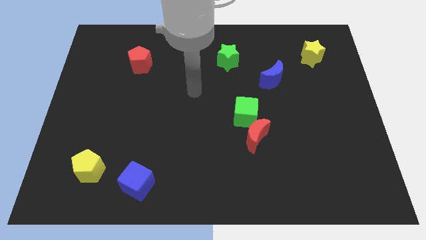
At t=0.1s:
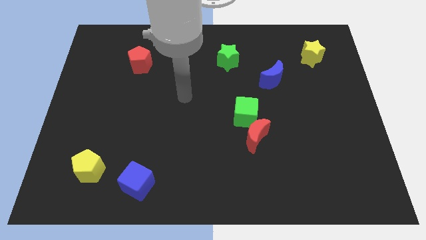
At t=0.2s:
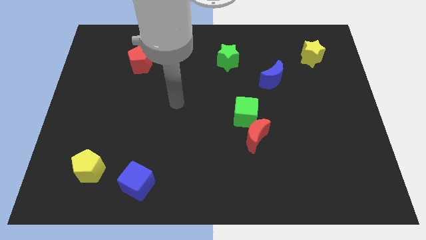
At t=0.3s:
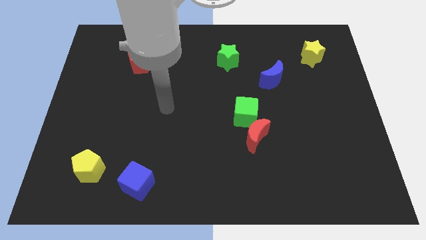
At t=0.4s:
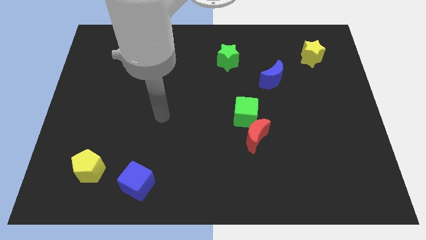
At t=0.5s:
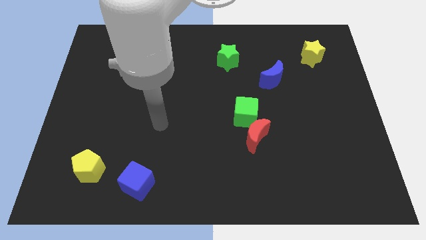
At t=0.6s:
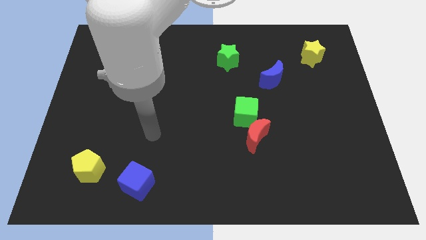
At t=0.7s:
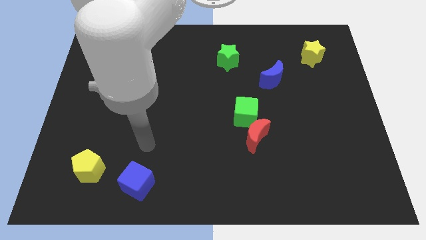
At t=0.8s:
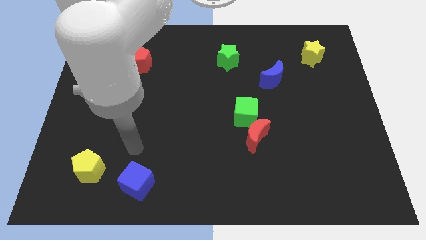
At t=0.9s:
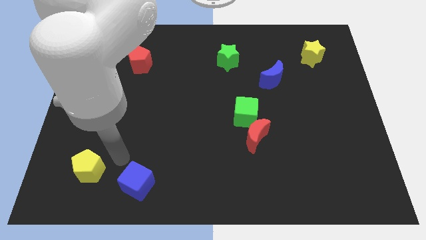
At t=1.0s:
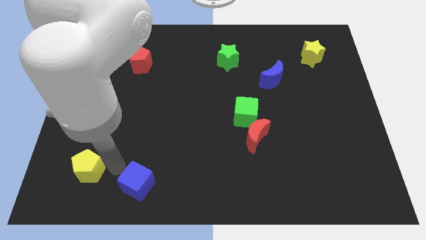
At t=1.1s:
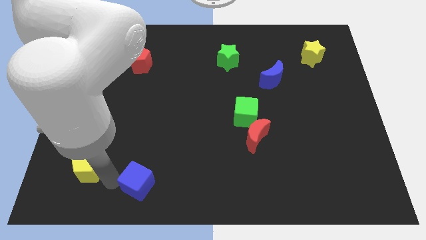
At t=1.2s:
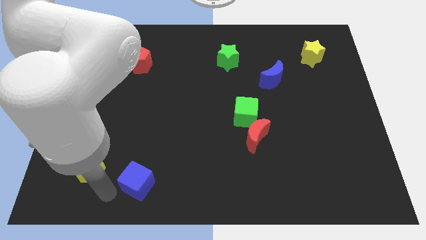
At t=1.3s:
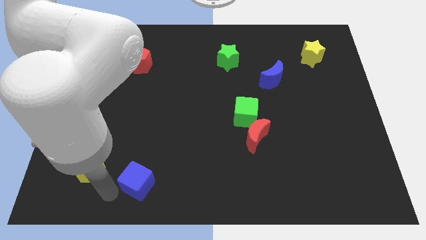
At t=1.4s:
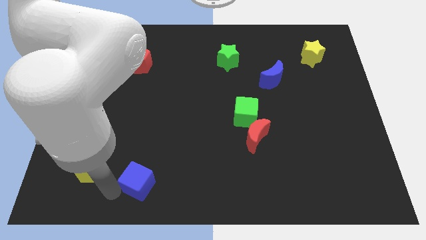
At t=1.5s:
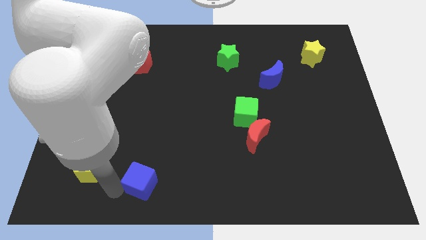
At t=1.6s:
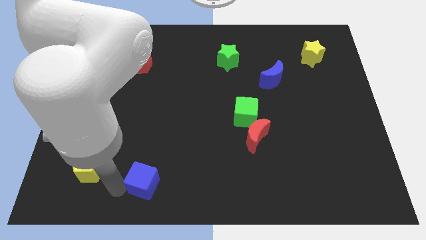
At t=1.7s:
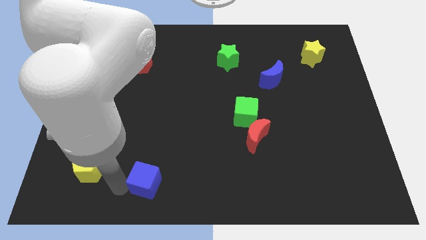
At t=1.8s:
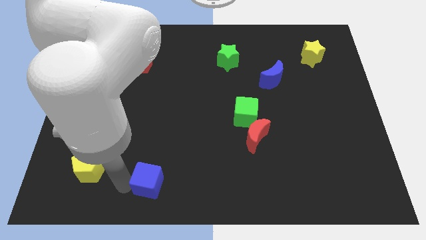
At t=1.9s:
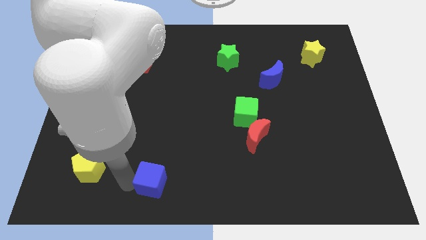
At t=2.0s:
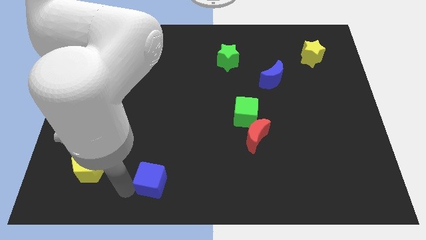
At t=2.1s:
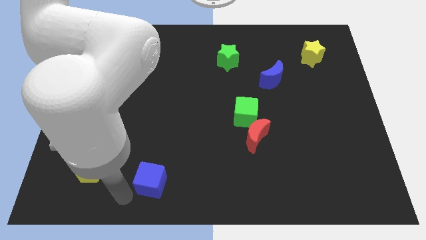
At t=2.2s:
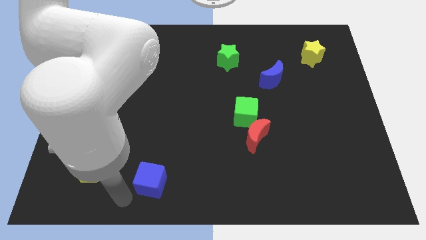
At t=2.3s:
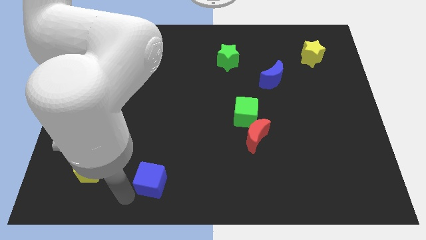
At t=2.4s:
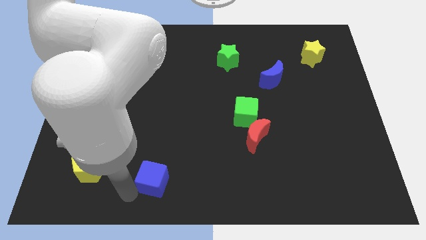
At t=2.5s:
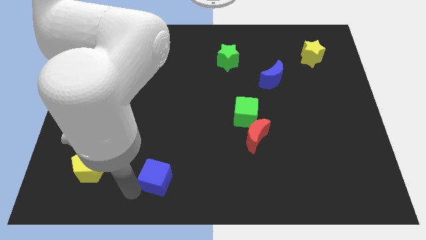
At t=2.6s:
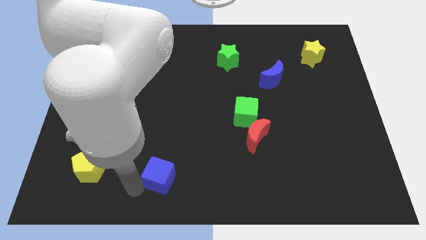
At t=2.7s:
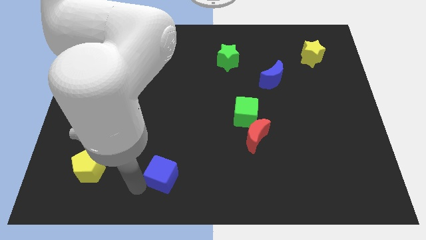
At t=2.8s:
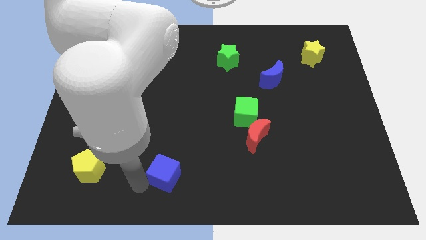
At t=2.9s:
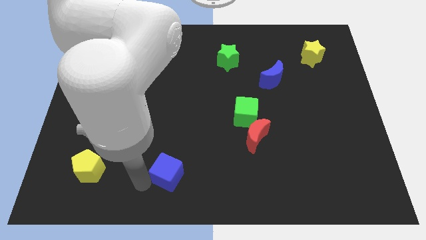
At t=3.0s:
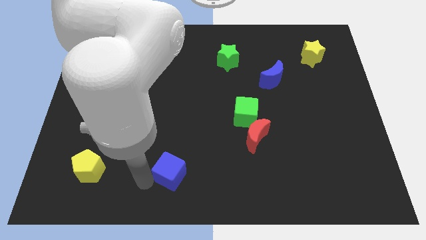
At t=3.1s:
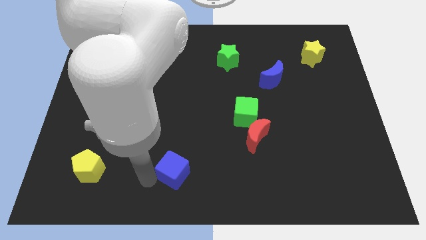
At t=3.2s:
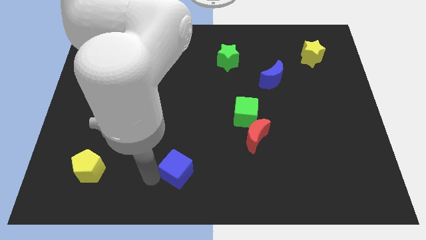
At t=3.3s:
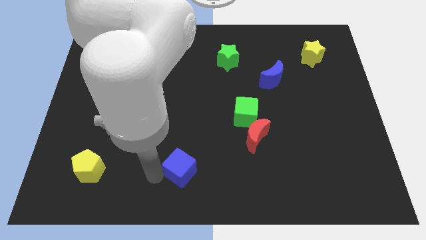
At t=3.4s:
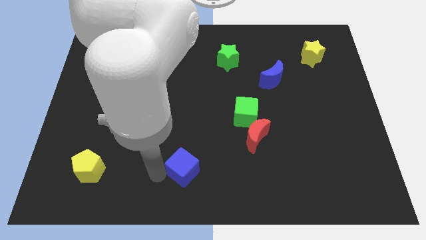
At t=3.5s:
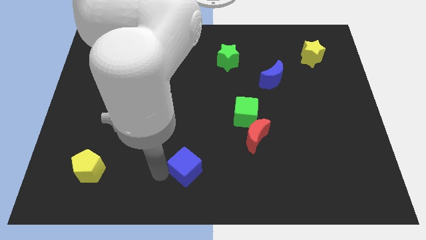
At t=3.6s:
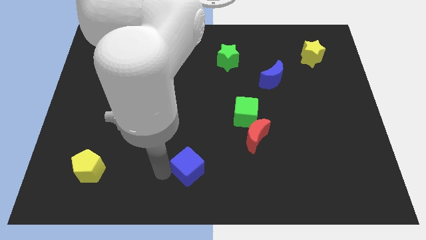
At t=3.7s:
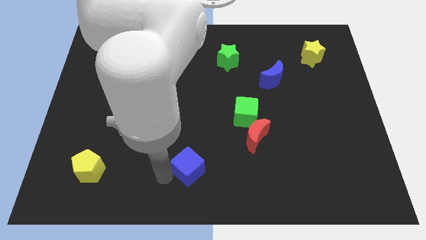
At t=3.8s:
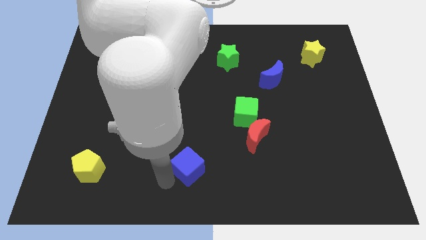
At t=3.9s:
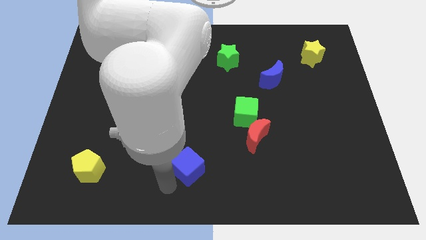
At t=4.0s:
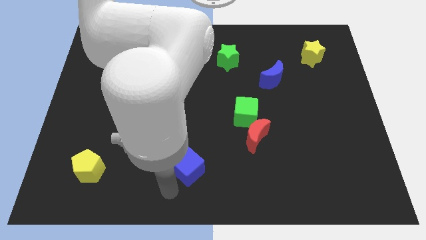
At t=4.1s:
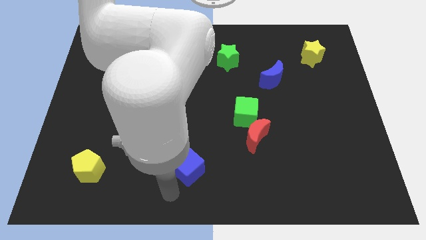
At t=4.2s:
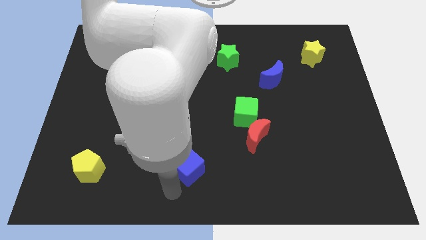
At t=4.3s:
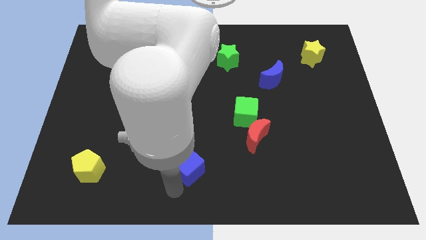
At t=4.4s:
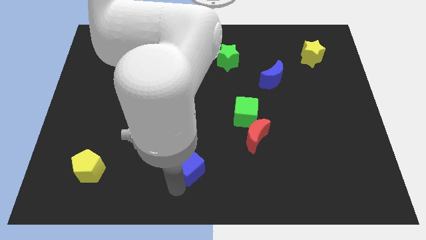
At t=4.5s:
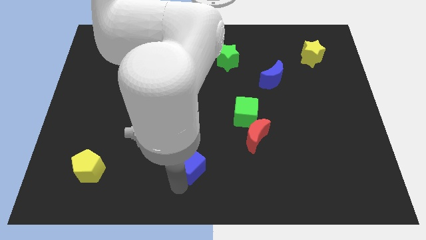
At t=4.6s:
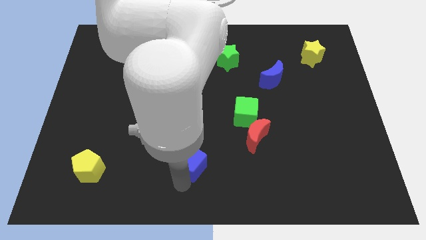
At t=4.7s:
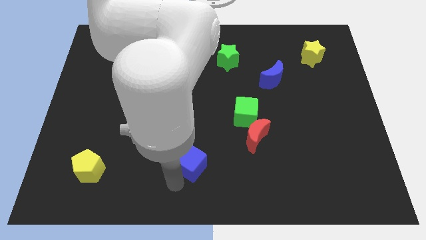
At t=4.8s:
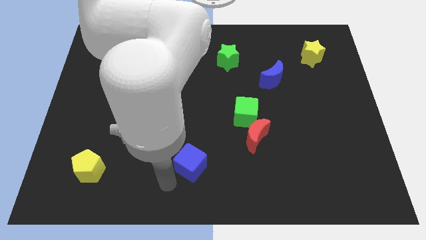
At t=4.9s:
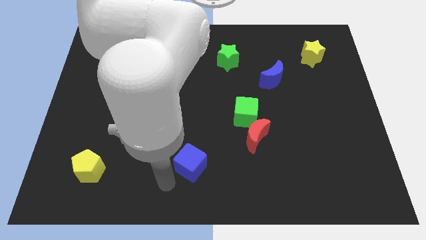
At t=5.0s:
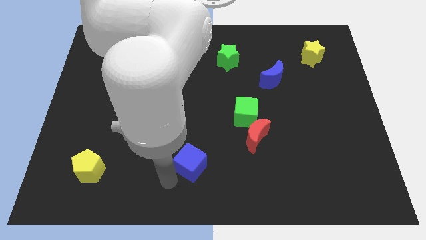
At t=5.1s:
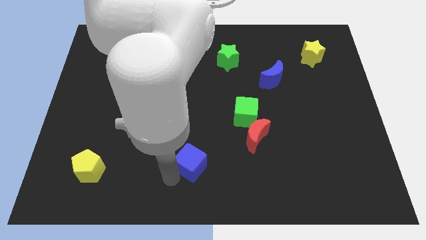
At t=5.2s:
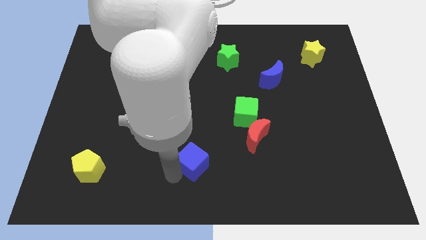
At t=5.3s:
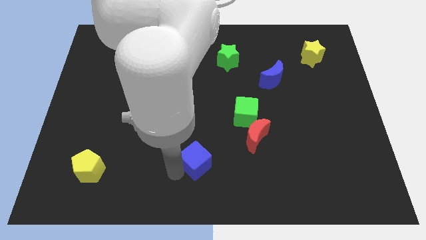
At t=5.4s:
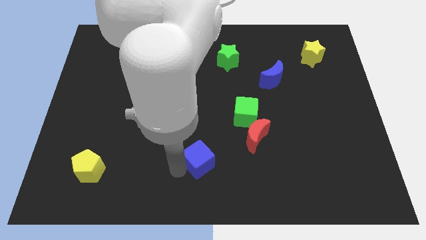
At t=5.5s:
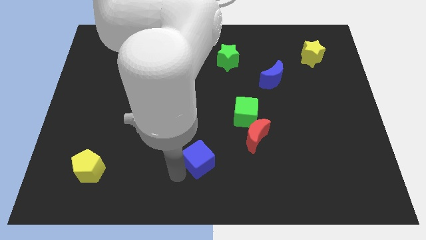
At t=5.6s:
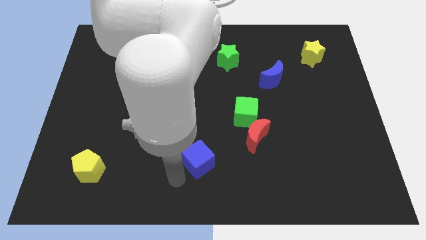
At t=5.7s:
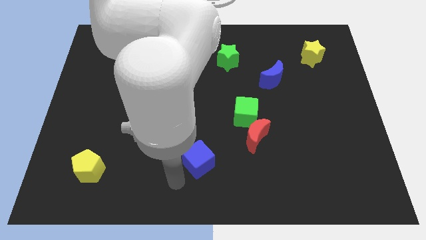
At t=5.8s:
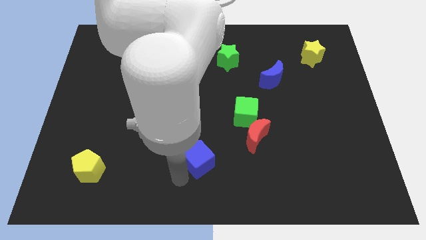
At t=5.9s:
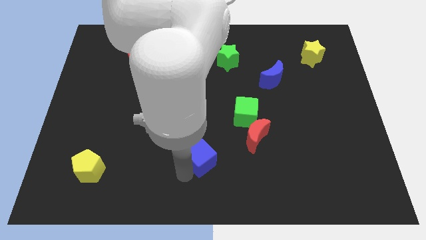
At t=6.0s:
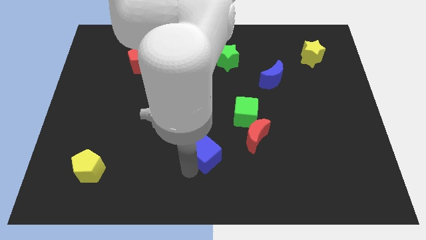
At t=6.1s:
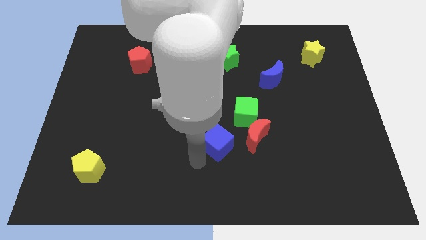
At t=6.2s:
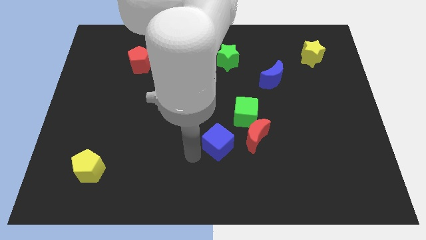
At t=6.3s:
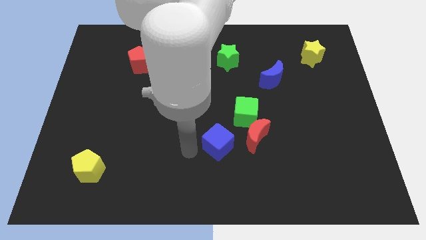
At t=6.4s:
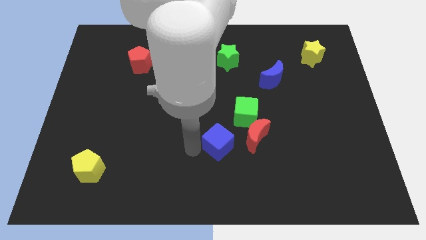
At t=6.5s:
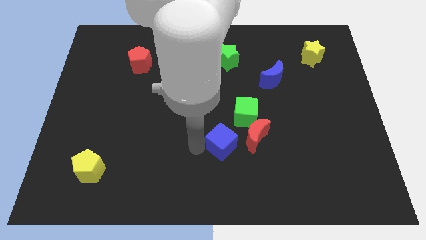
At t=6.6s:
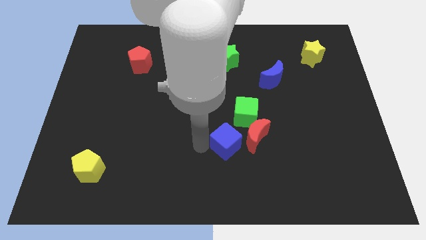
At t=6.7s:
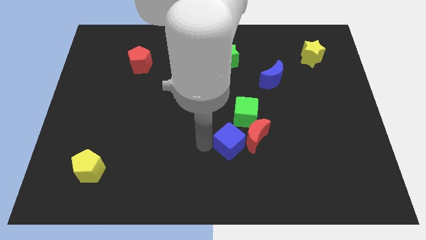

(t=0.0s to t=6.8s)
move the blue cube to the red moon
